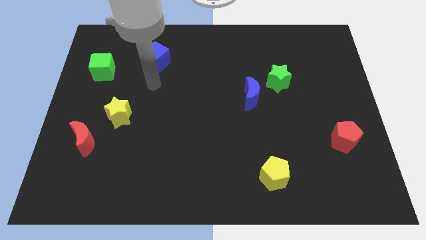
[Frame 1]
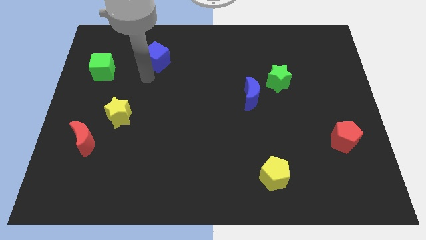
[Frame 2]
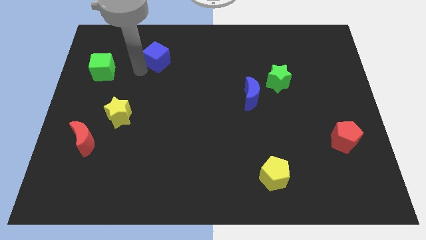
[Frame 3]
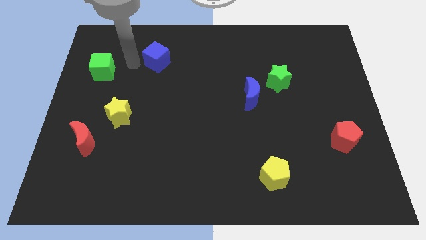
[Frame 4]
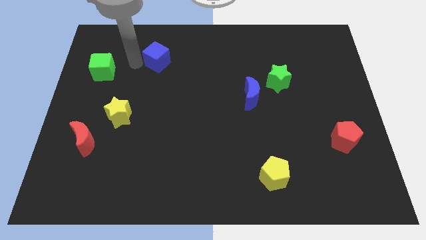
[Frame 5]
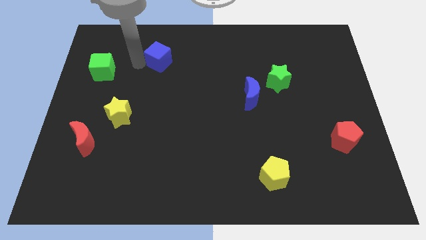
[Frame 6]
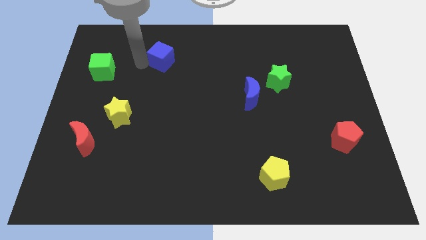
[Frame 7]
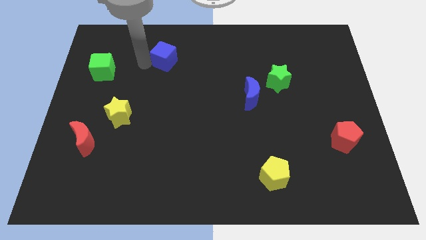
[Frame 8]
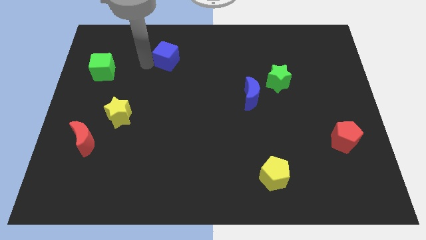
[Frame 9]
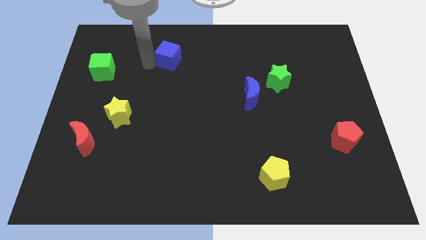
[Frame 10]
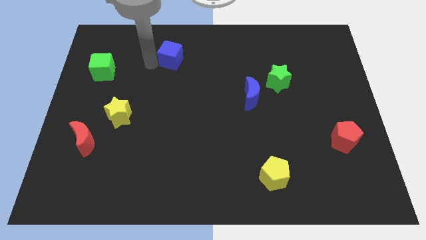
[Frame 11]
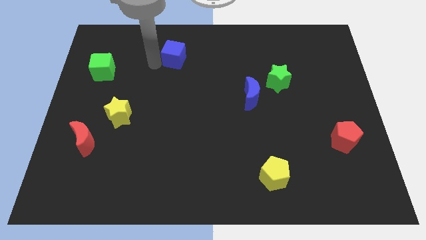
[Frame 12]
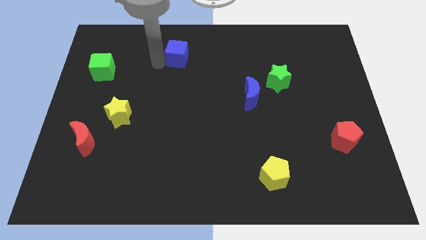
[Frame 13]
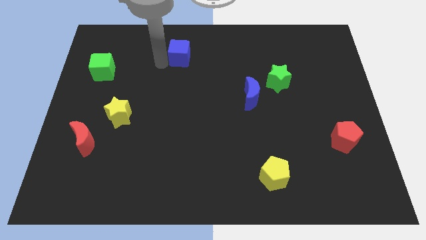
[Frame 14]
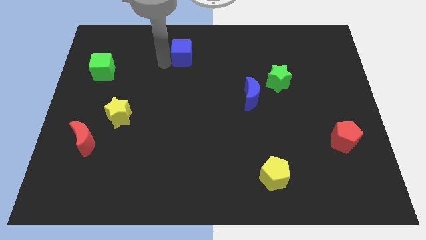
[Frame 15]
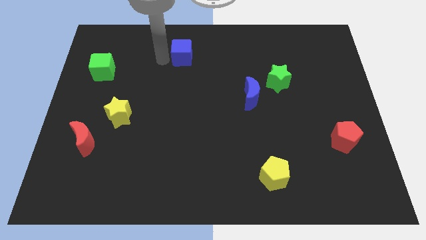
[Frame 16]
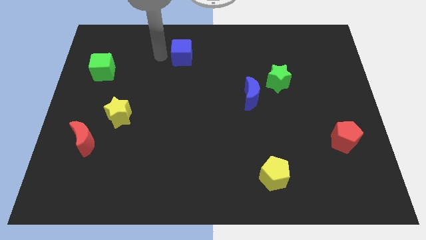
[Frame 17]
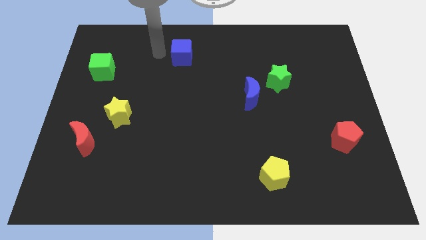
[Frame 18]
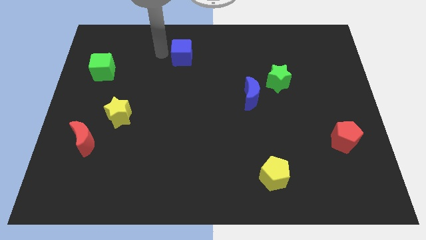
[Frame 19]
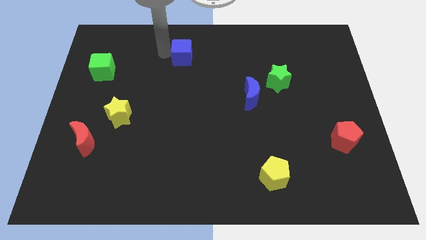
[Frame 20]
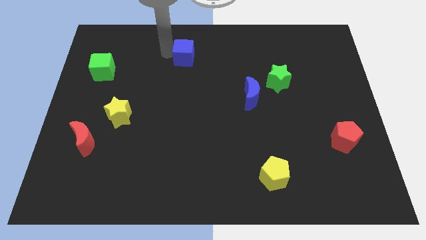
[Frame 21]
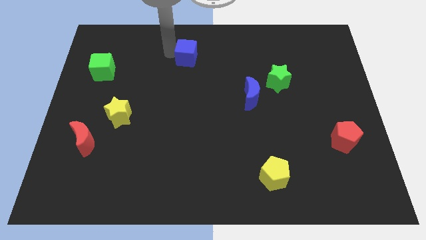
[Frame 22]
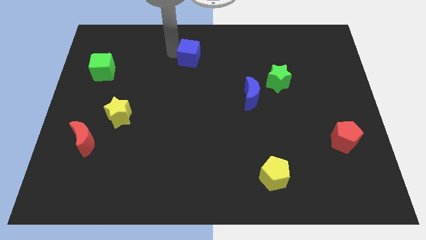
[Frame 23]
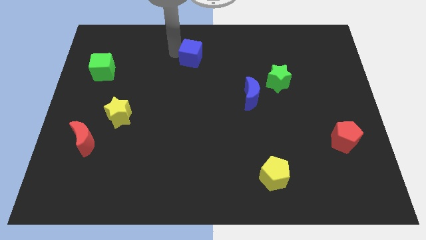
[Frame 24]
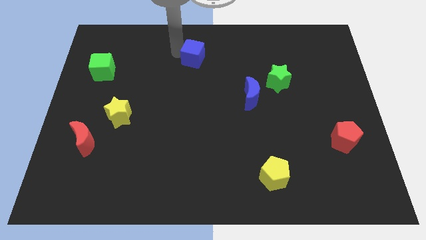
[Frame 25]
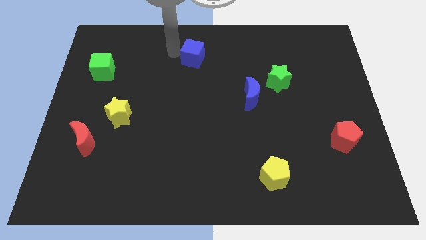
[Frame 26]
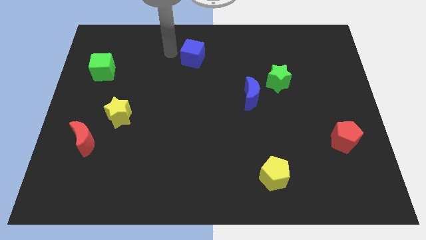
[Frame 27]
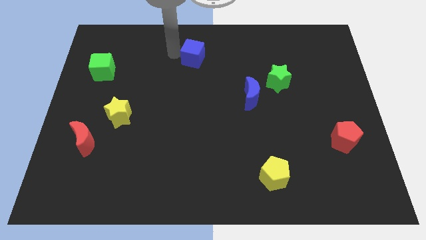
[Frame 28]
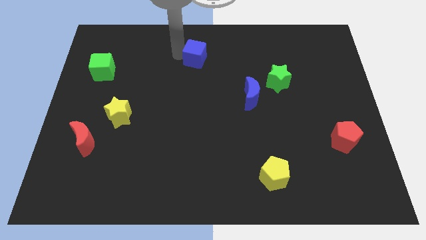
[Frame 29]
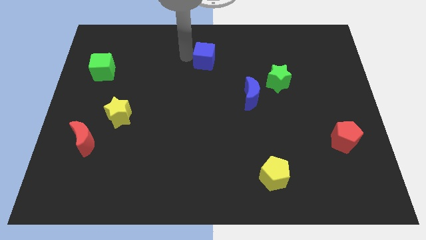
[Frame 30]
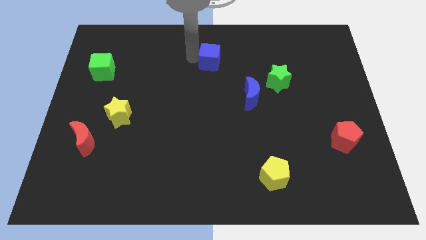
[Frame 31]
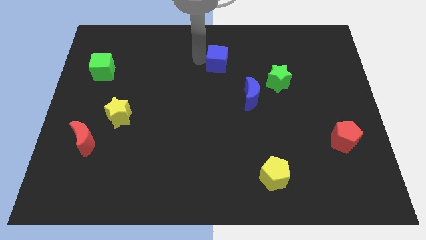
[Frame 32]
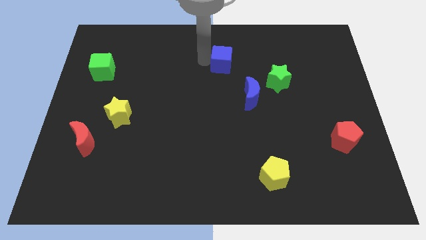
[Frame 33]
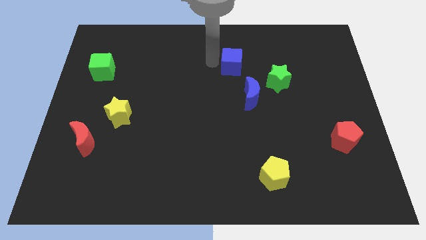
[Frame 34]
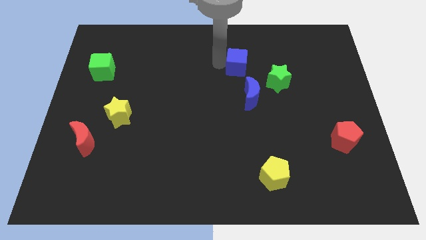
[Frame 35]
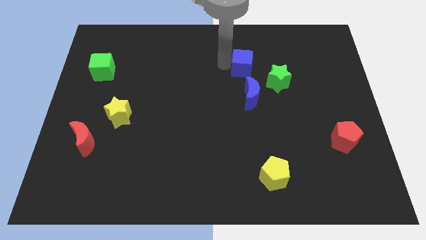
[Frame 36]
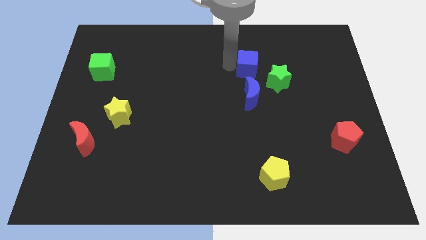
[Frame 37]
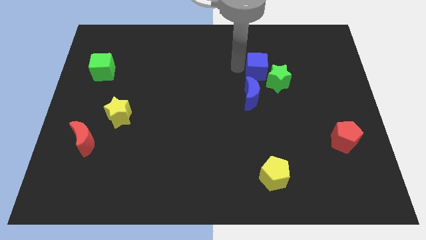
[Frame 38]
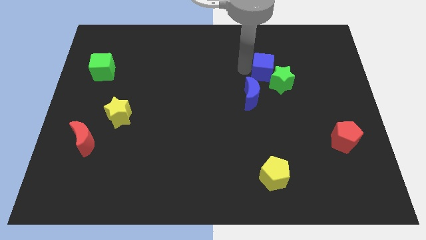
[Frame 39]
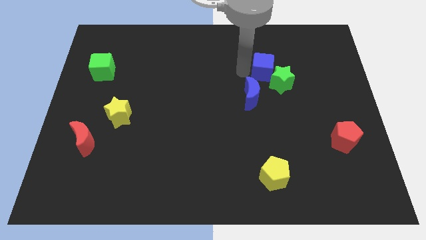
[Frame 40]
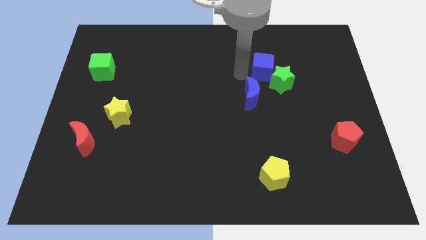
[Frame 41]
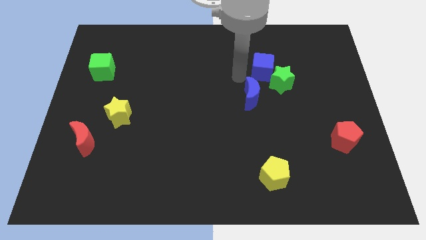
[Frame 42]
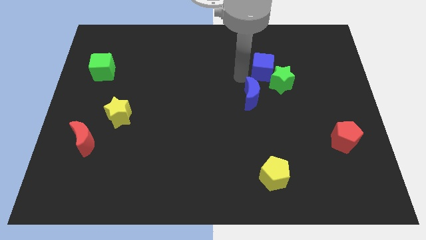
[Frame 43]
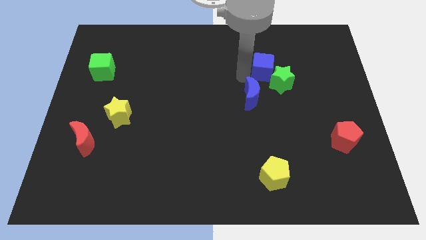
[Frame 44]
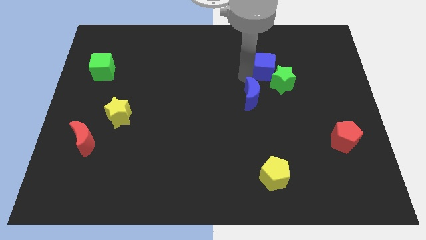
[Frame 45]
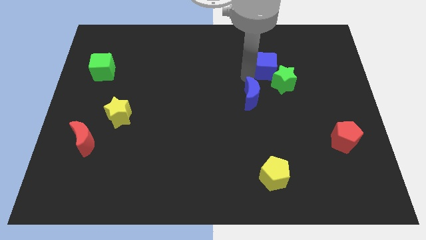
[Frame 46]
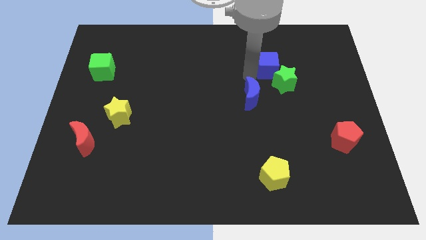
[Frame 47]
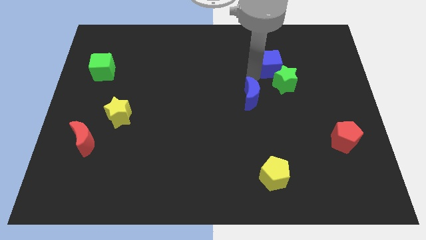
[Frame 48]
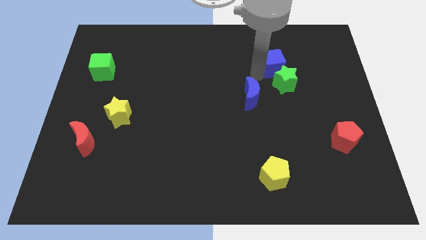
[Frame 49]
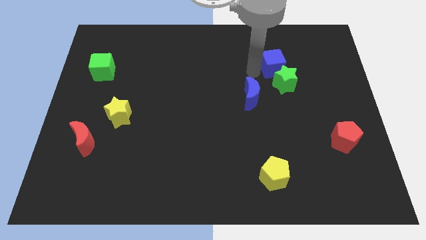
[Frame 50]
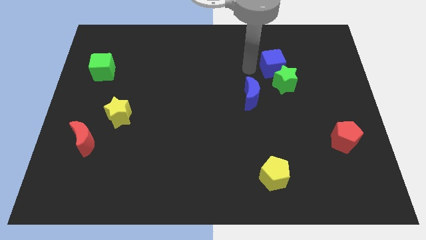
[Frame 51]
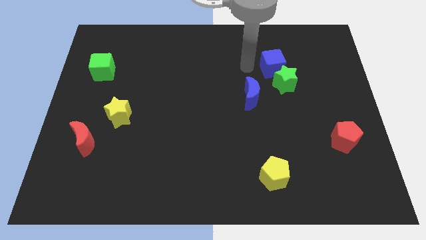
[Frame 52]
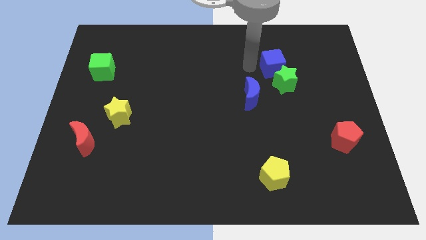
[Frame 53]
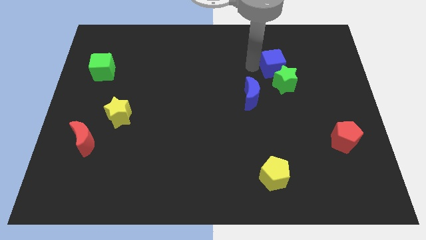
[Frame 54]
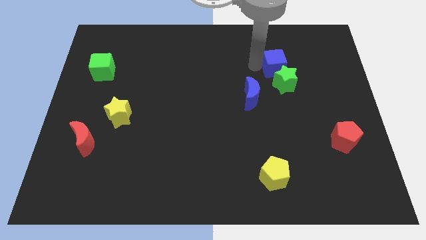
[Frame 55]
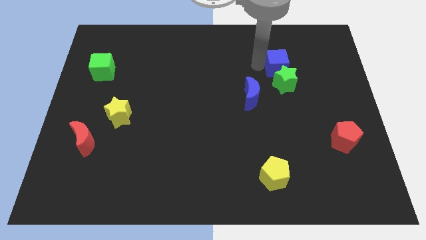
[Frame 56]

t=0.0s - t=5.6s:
move the blue cube diagonally up and to the right of the green star

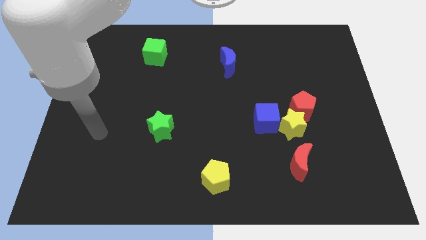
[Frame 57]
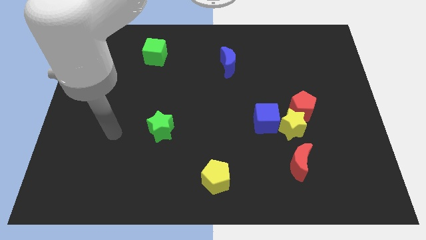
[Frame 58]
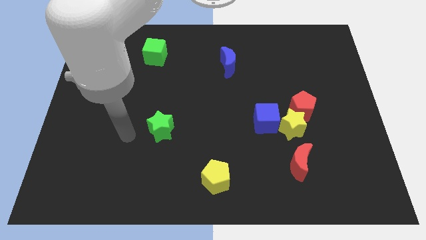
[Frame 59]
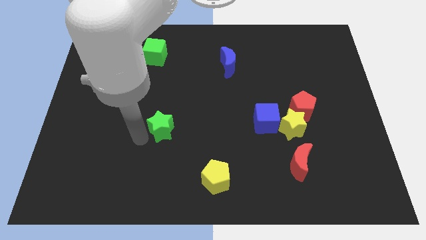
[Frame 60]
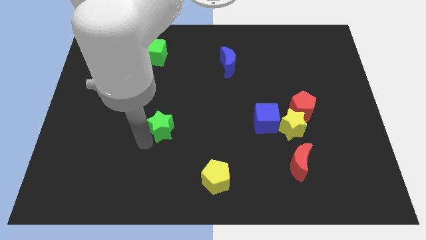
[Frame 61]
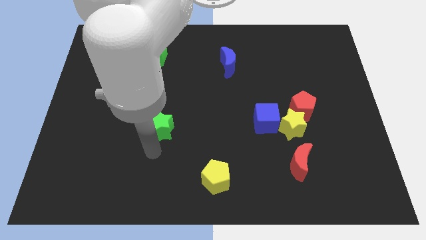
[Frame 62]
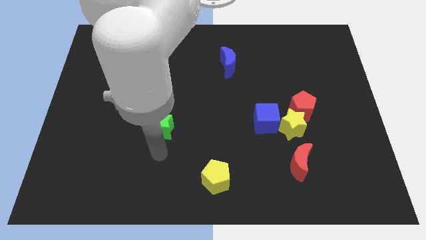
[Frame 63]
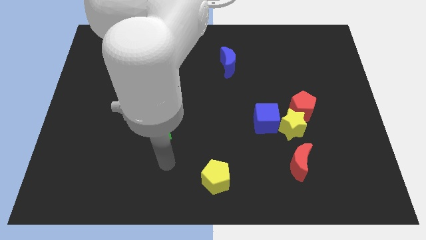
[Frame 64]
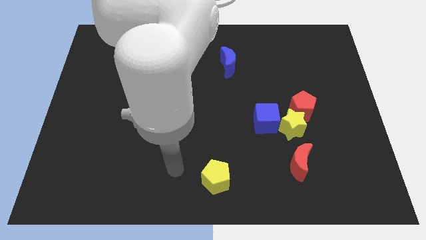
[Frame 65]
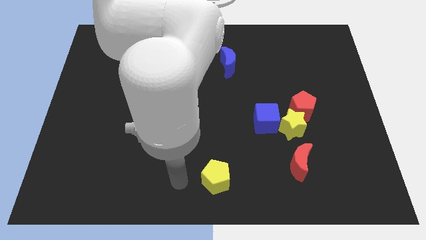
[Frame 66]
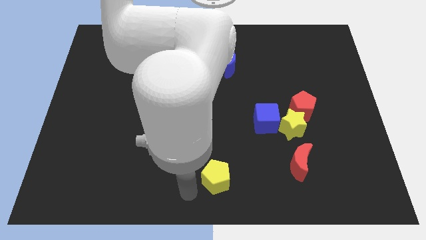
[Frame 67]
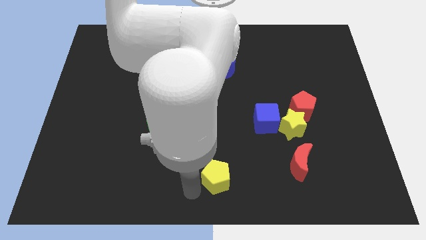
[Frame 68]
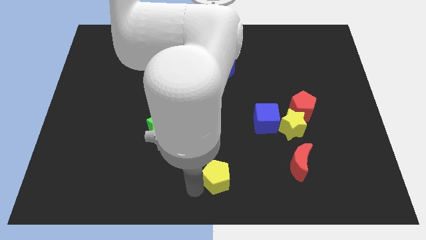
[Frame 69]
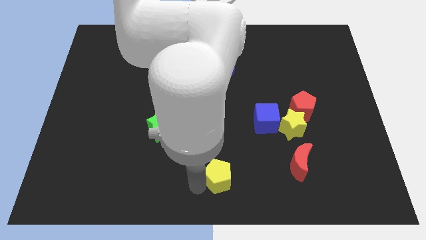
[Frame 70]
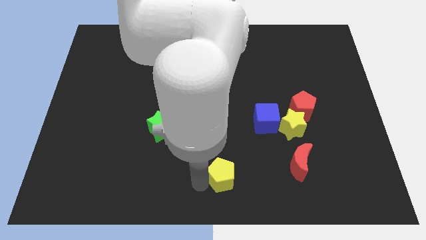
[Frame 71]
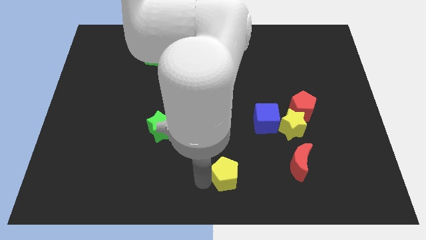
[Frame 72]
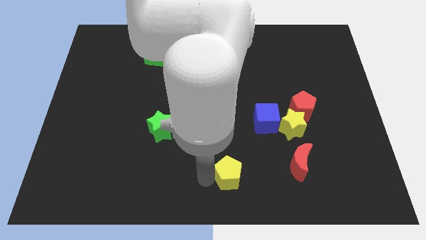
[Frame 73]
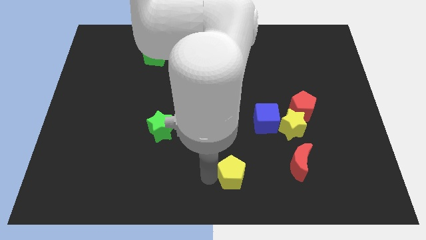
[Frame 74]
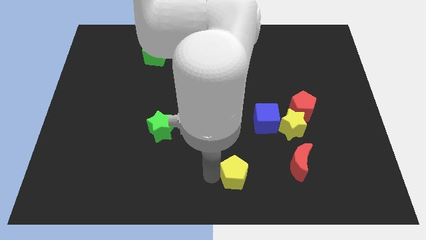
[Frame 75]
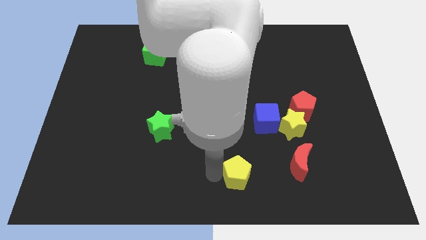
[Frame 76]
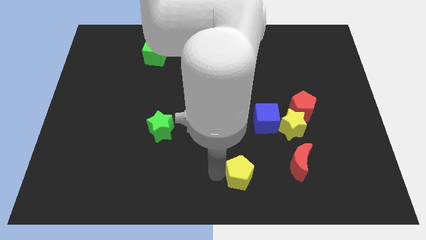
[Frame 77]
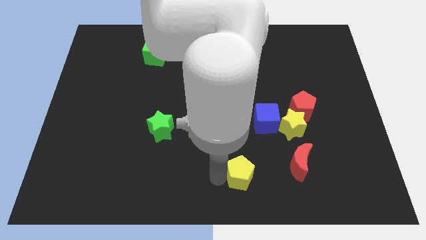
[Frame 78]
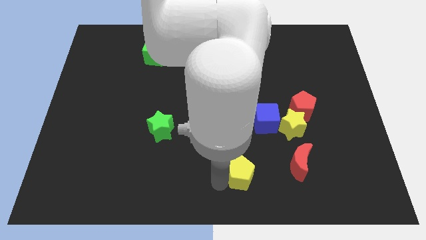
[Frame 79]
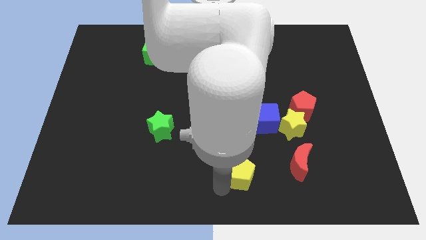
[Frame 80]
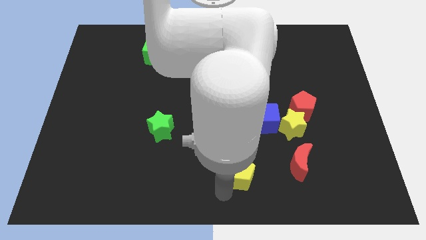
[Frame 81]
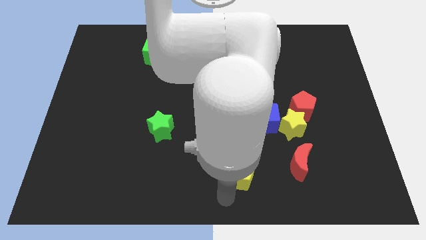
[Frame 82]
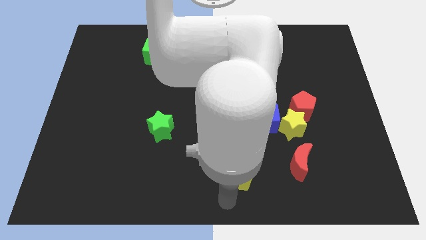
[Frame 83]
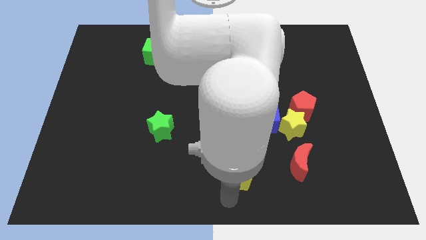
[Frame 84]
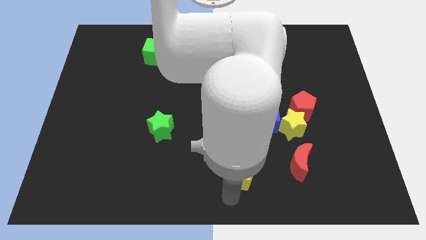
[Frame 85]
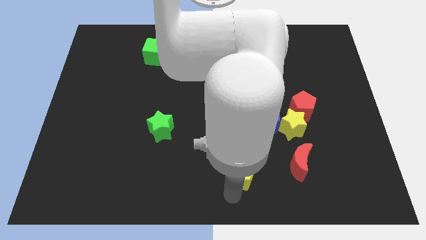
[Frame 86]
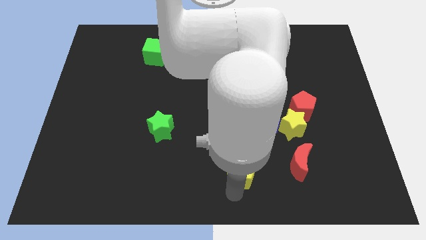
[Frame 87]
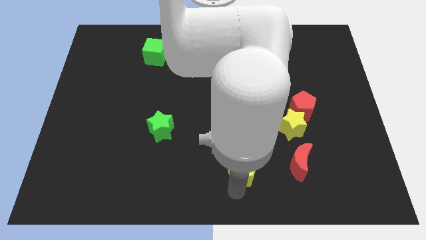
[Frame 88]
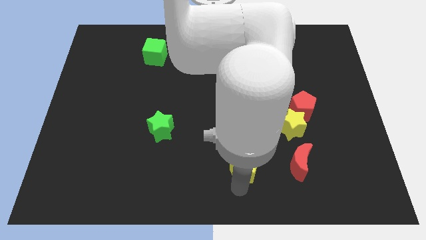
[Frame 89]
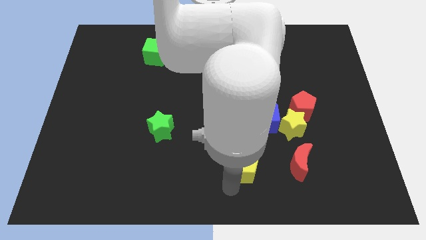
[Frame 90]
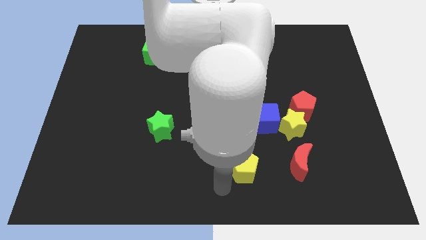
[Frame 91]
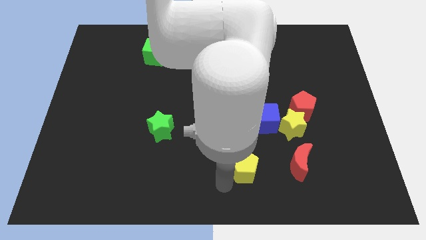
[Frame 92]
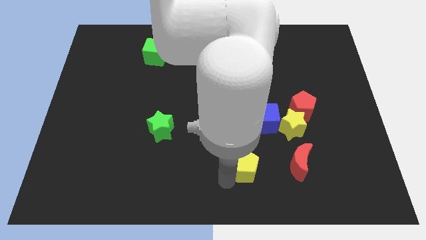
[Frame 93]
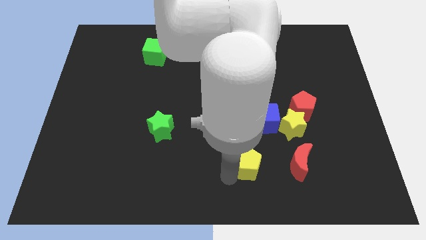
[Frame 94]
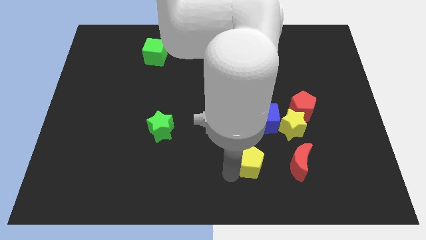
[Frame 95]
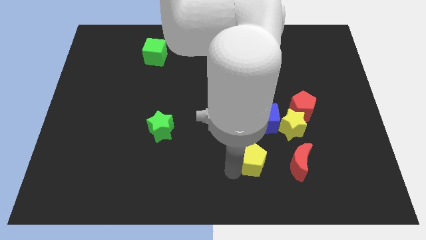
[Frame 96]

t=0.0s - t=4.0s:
slide the yellow pentagon diagonally down and to the left of the yellow star
